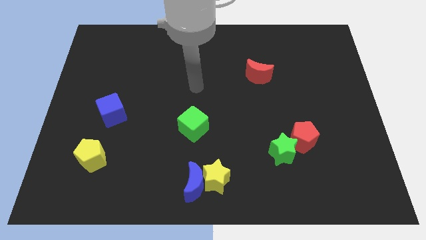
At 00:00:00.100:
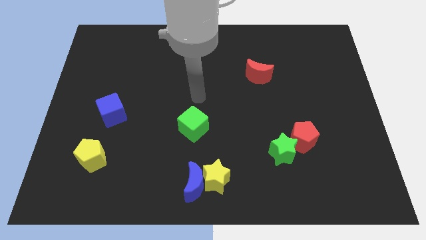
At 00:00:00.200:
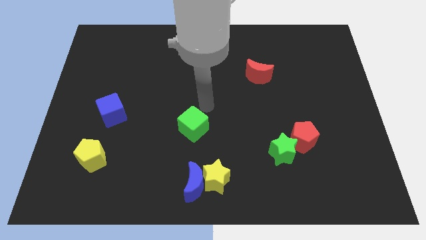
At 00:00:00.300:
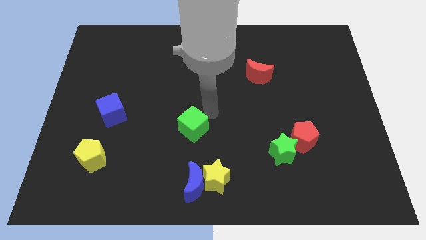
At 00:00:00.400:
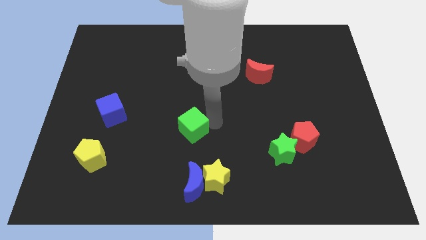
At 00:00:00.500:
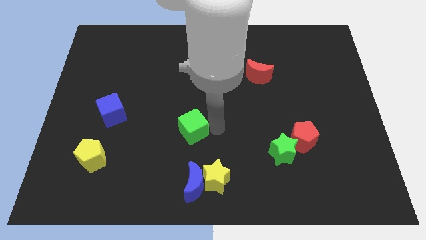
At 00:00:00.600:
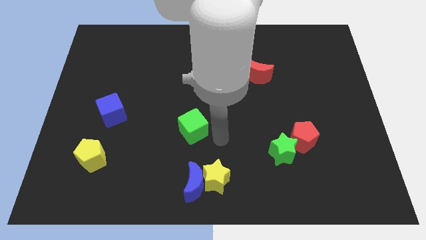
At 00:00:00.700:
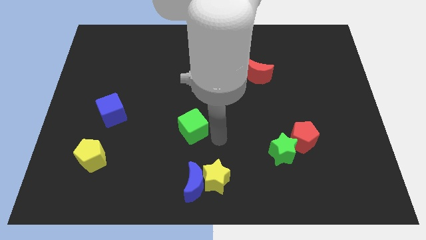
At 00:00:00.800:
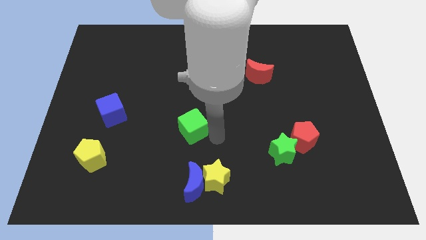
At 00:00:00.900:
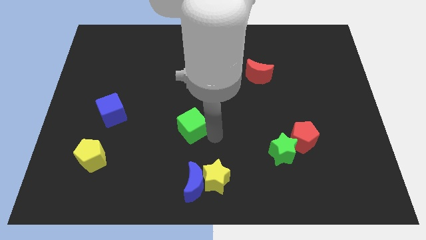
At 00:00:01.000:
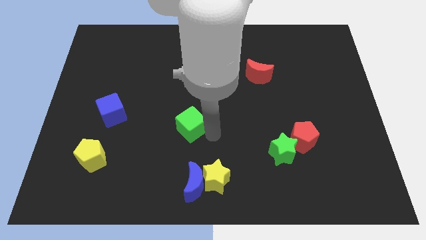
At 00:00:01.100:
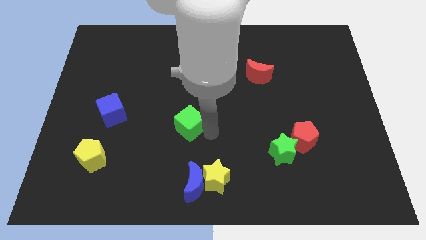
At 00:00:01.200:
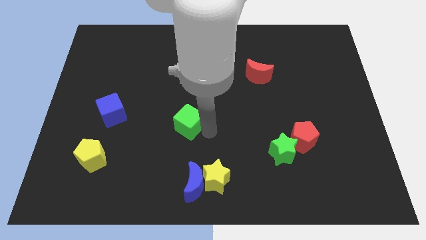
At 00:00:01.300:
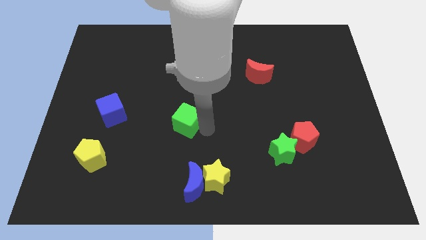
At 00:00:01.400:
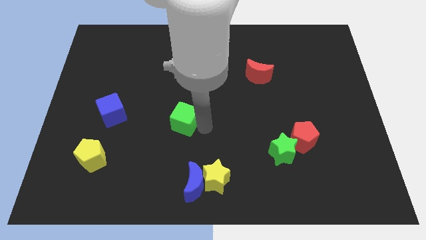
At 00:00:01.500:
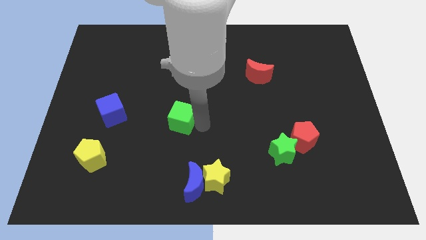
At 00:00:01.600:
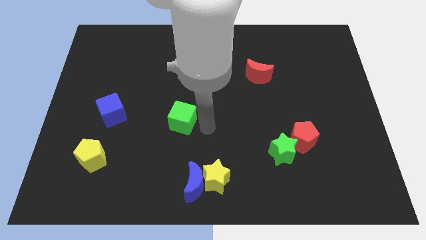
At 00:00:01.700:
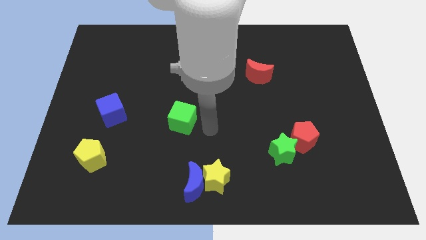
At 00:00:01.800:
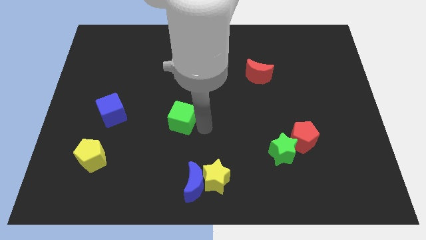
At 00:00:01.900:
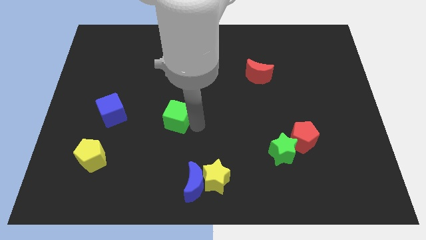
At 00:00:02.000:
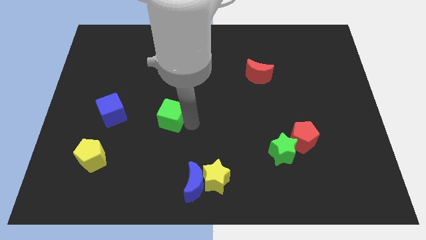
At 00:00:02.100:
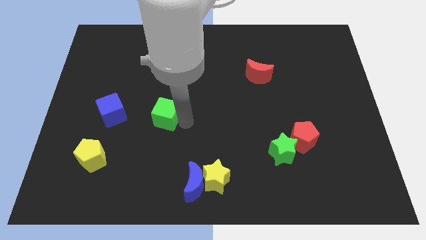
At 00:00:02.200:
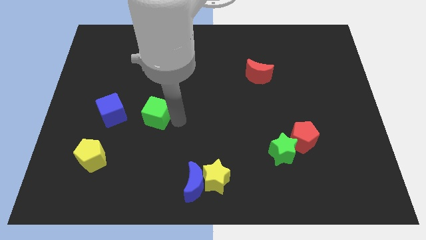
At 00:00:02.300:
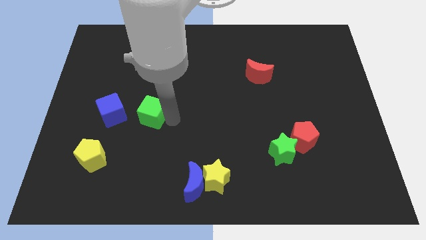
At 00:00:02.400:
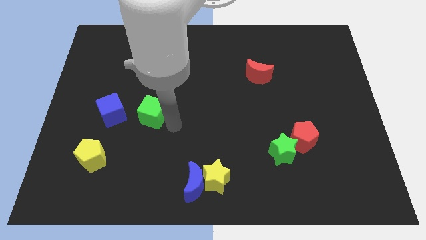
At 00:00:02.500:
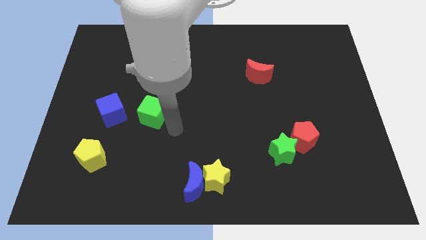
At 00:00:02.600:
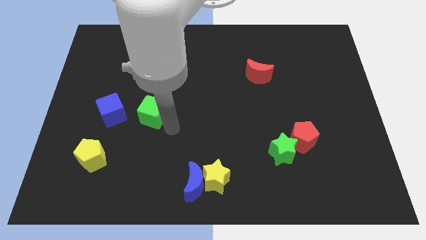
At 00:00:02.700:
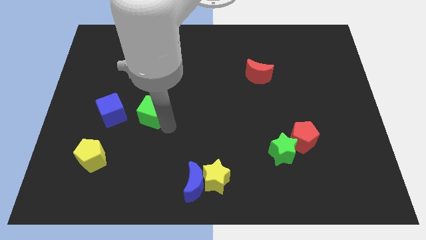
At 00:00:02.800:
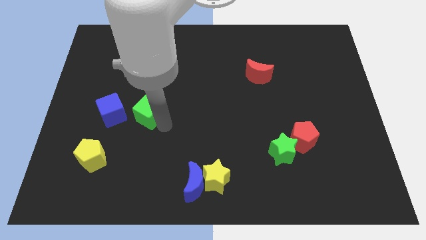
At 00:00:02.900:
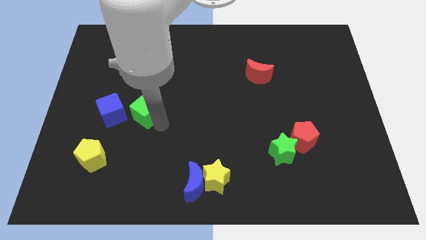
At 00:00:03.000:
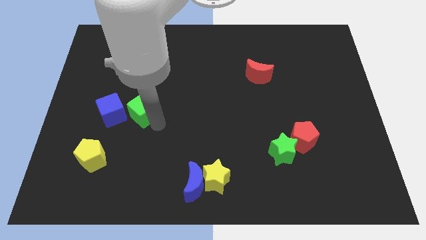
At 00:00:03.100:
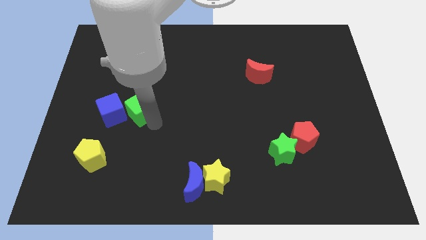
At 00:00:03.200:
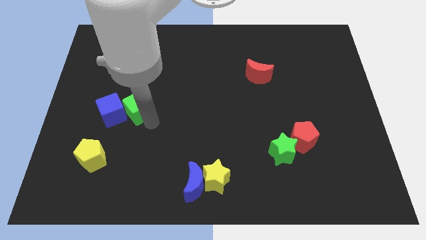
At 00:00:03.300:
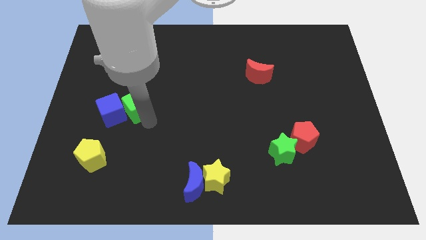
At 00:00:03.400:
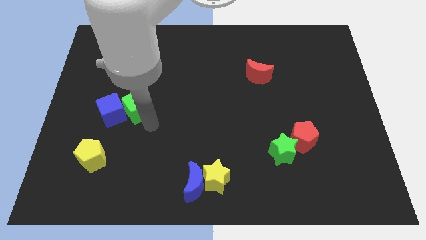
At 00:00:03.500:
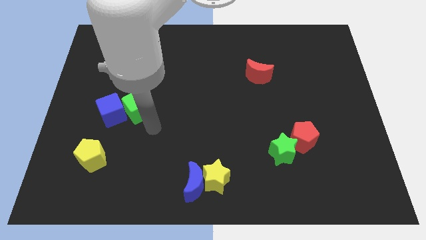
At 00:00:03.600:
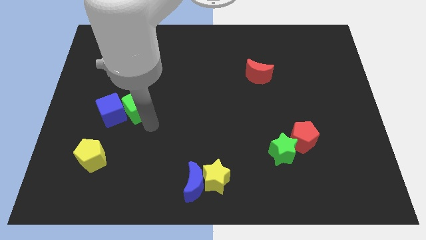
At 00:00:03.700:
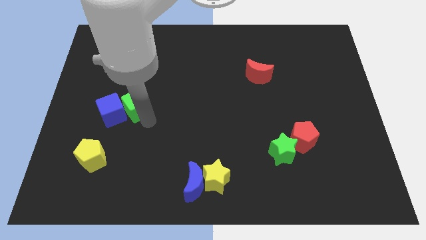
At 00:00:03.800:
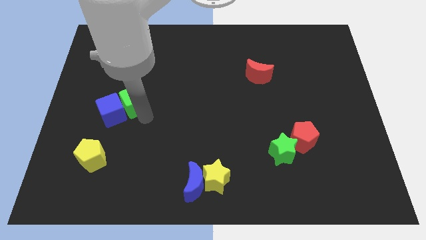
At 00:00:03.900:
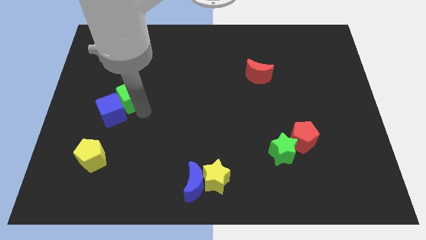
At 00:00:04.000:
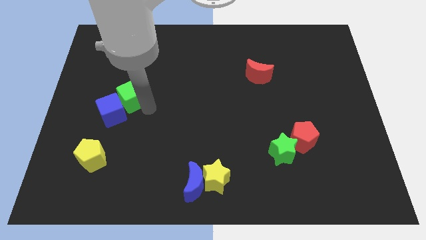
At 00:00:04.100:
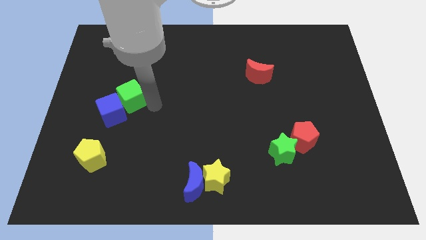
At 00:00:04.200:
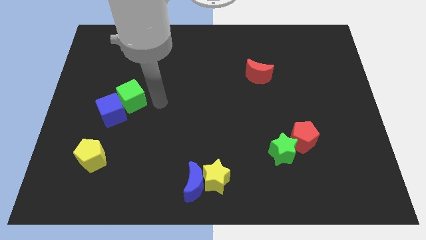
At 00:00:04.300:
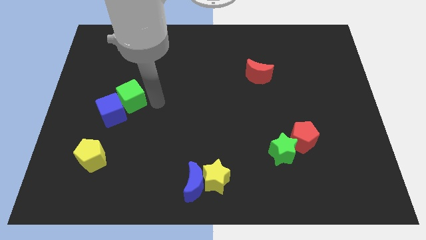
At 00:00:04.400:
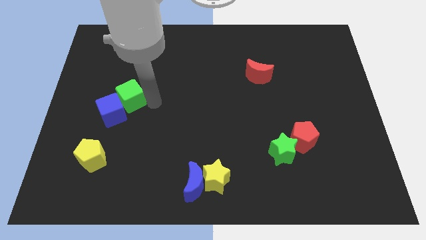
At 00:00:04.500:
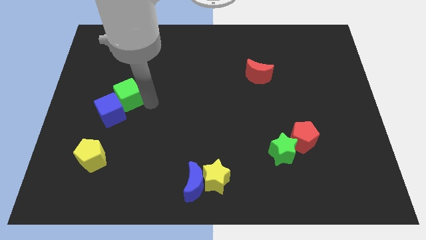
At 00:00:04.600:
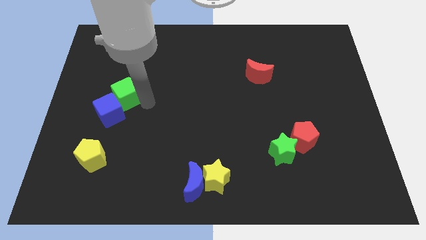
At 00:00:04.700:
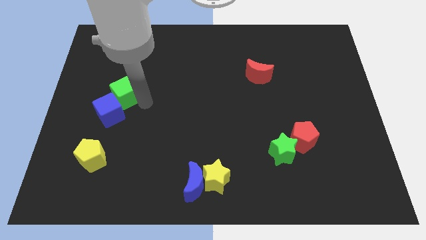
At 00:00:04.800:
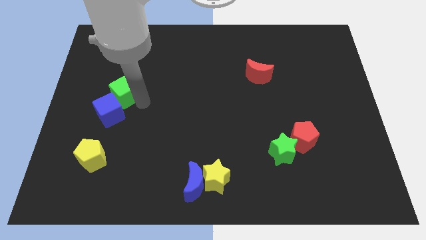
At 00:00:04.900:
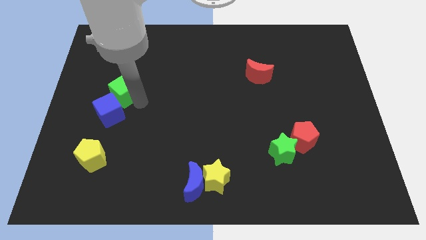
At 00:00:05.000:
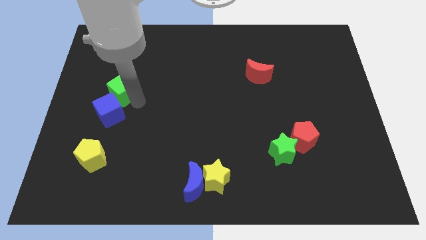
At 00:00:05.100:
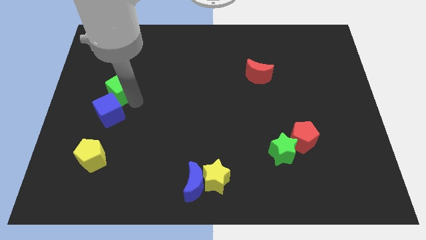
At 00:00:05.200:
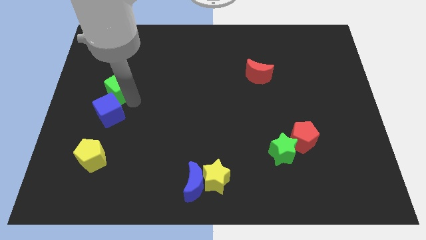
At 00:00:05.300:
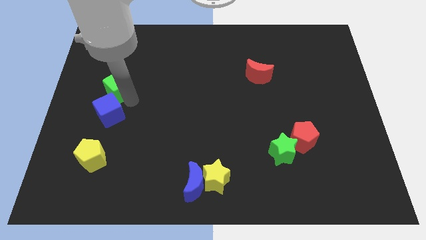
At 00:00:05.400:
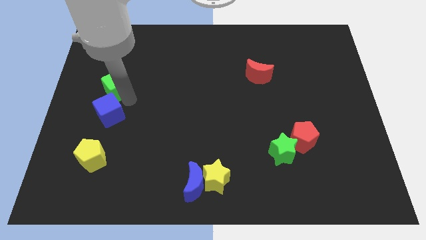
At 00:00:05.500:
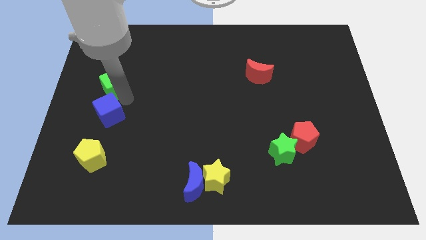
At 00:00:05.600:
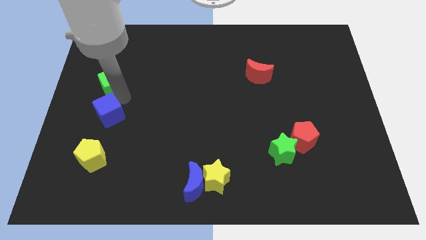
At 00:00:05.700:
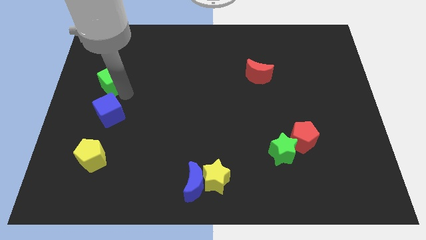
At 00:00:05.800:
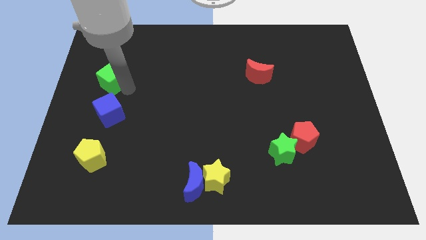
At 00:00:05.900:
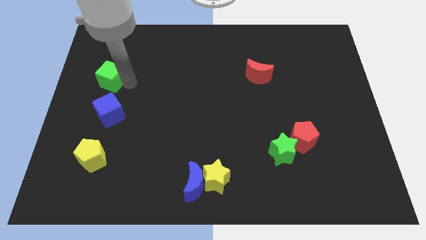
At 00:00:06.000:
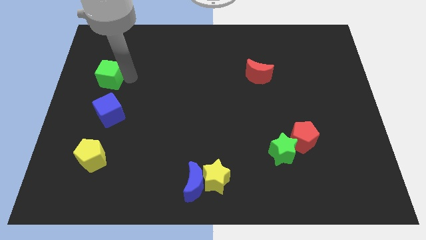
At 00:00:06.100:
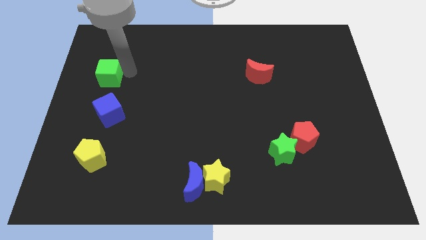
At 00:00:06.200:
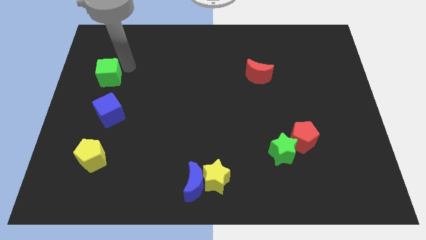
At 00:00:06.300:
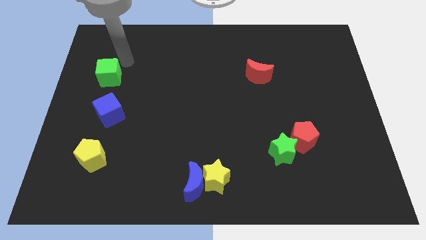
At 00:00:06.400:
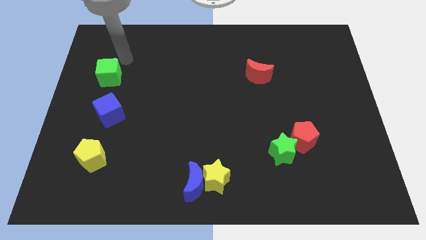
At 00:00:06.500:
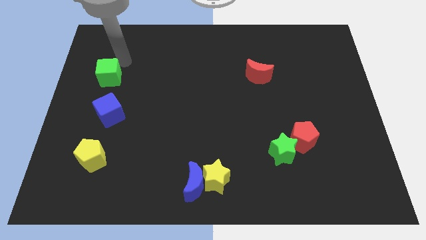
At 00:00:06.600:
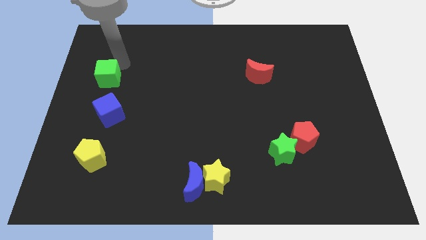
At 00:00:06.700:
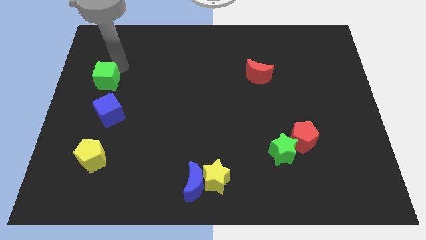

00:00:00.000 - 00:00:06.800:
move the green cube to the left side
